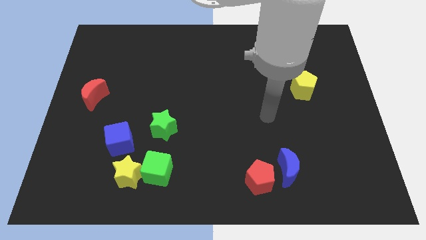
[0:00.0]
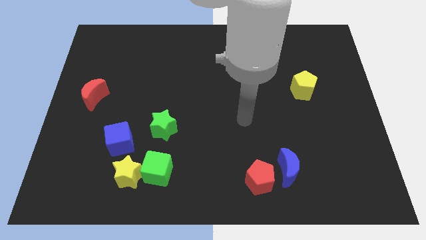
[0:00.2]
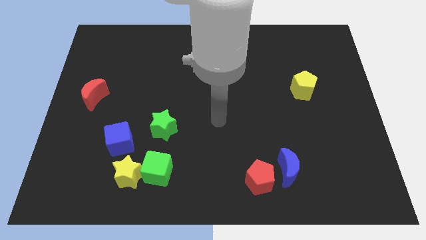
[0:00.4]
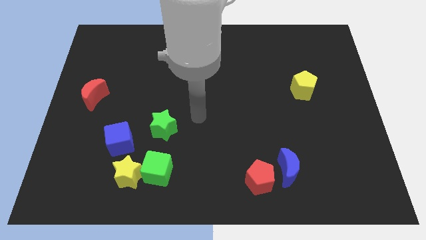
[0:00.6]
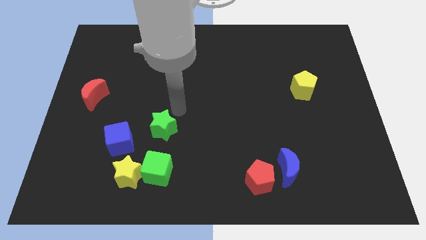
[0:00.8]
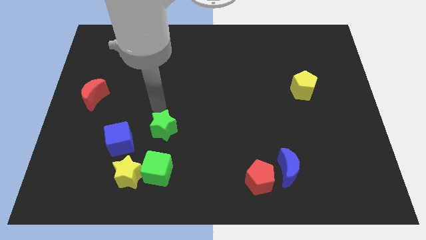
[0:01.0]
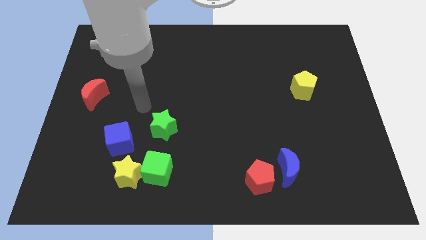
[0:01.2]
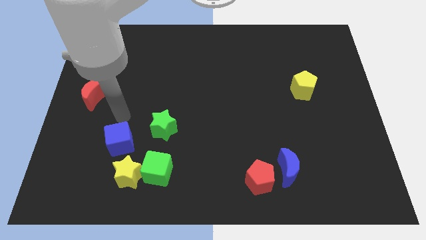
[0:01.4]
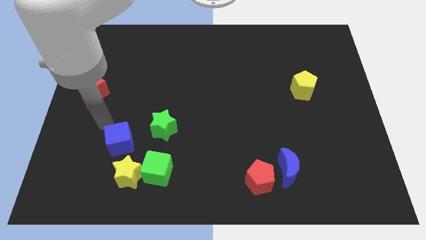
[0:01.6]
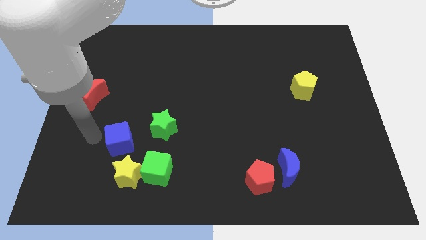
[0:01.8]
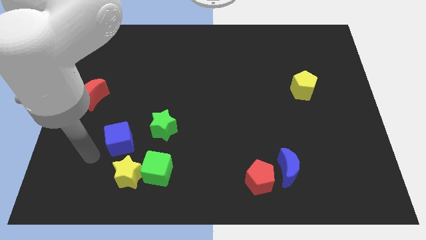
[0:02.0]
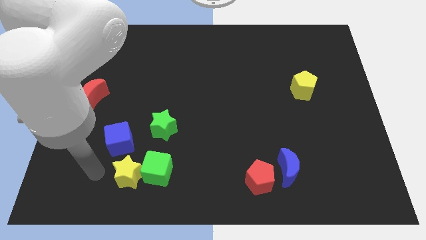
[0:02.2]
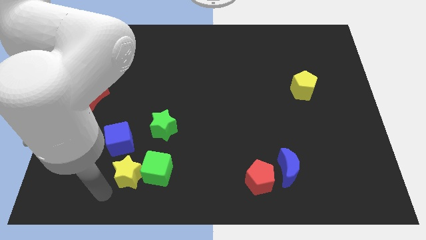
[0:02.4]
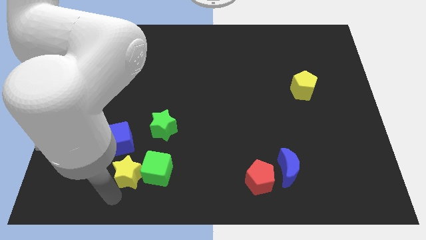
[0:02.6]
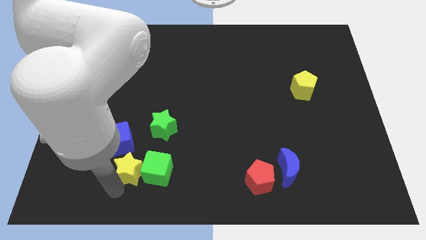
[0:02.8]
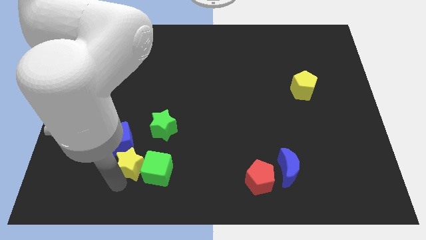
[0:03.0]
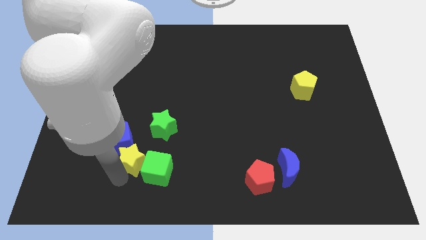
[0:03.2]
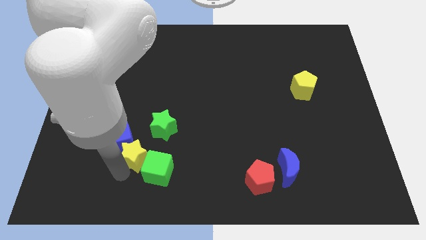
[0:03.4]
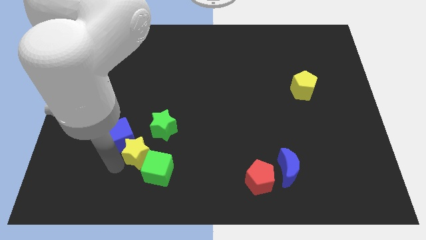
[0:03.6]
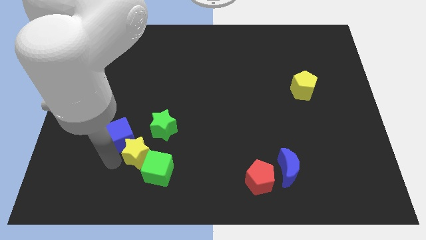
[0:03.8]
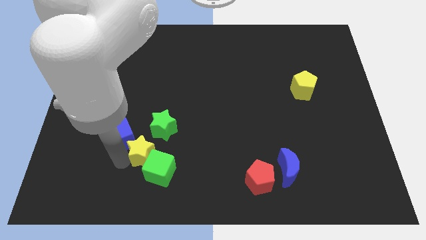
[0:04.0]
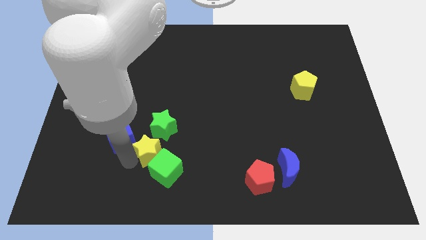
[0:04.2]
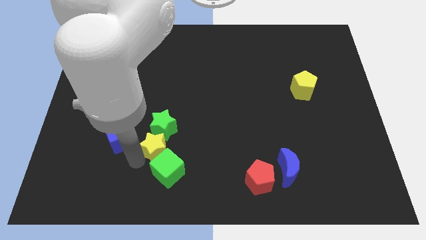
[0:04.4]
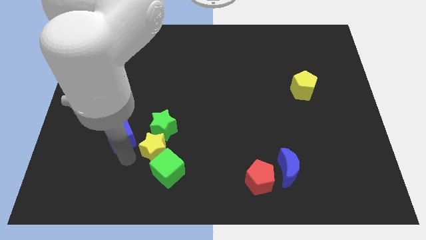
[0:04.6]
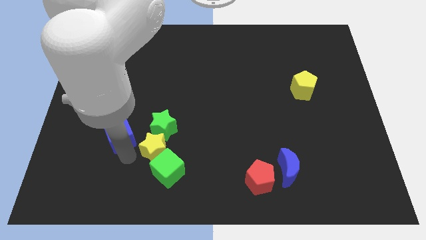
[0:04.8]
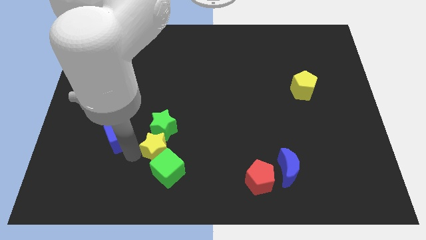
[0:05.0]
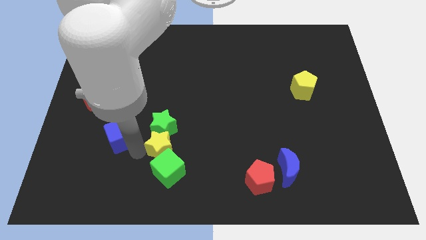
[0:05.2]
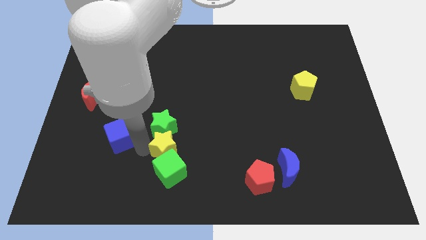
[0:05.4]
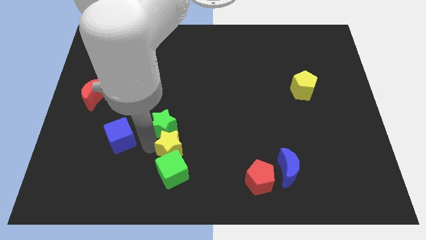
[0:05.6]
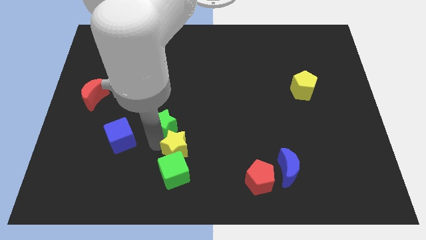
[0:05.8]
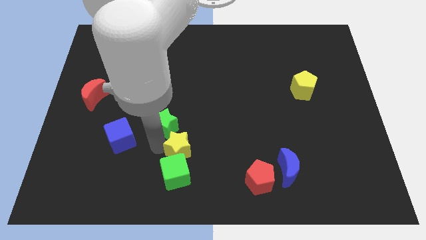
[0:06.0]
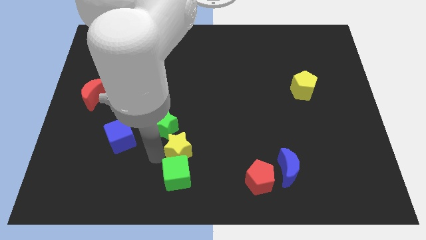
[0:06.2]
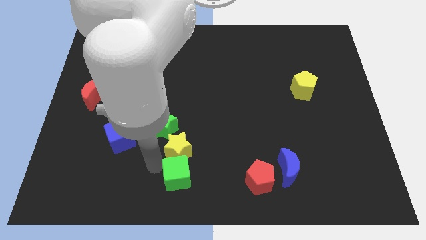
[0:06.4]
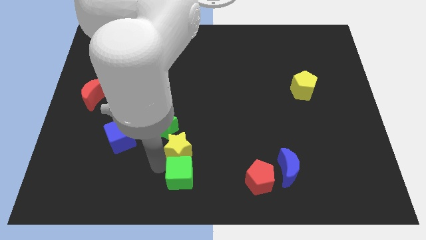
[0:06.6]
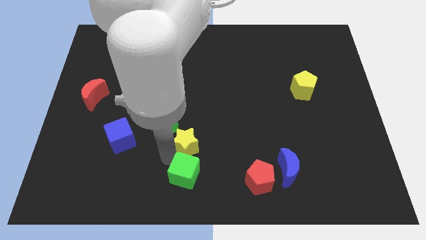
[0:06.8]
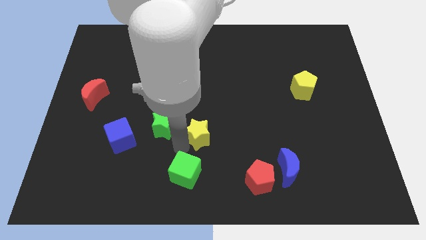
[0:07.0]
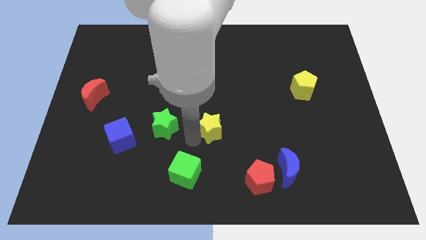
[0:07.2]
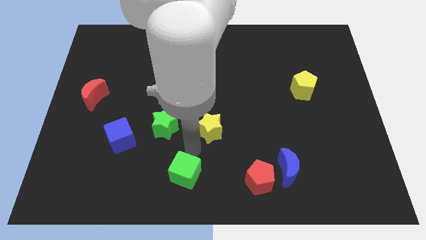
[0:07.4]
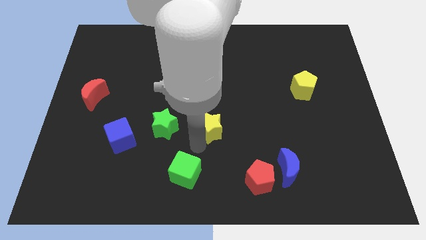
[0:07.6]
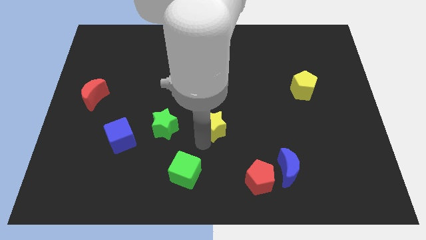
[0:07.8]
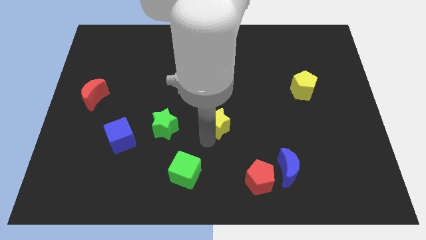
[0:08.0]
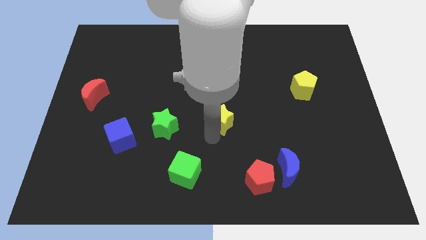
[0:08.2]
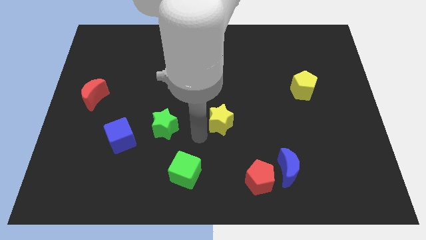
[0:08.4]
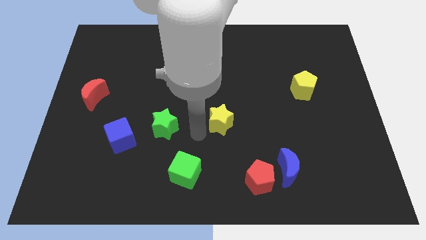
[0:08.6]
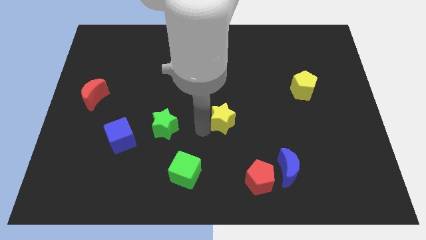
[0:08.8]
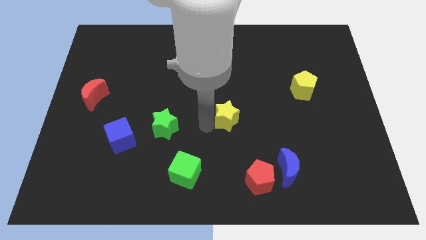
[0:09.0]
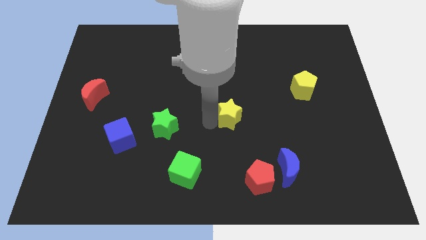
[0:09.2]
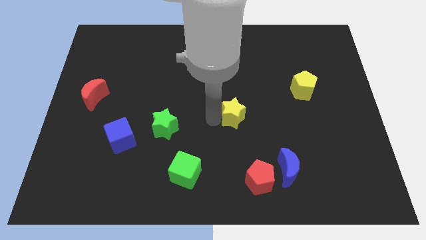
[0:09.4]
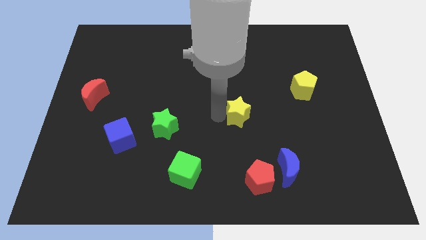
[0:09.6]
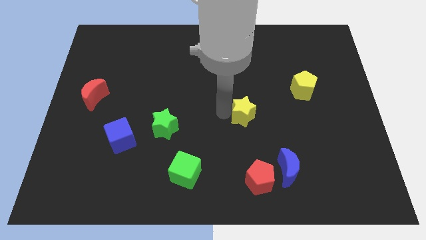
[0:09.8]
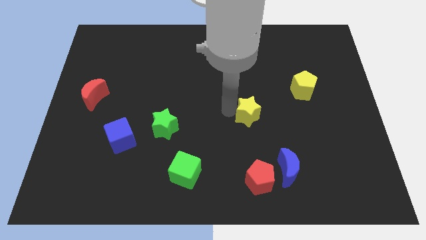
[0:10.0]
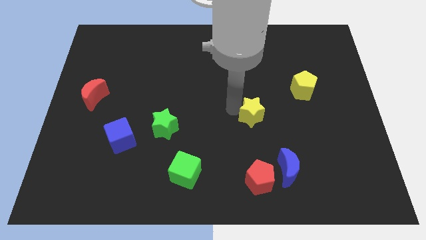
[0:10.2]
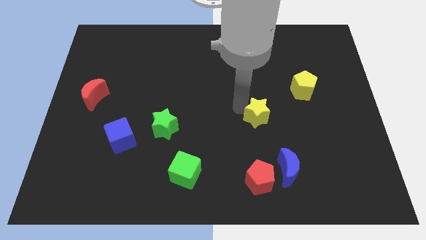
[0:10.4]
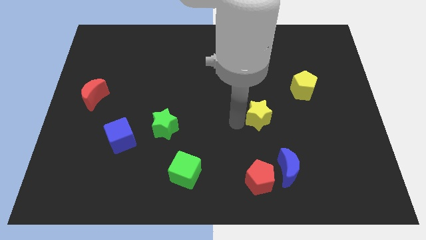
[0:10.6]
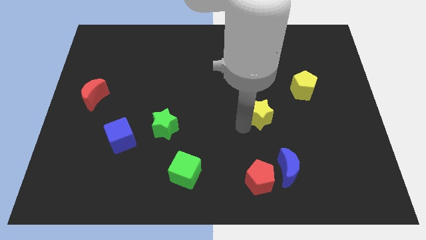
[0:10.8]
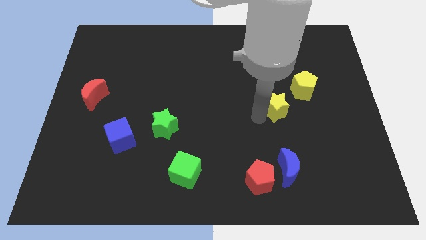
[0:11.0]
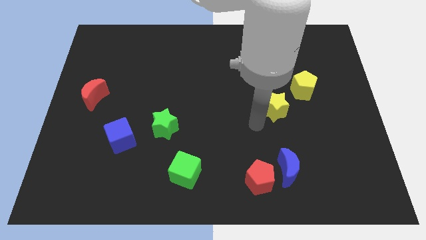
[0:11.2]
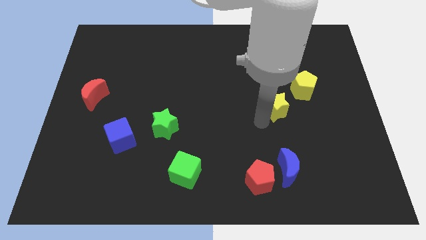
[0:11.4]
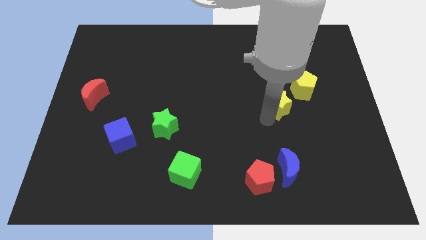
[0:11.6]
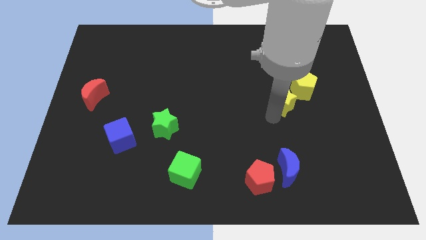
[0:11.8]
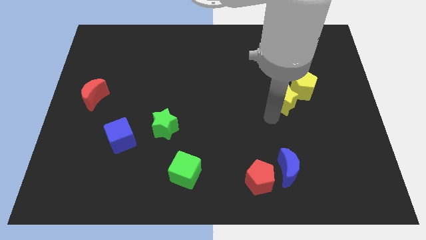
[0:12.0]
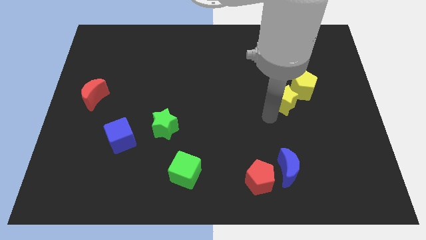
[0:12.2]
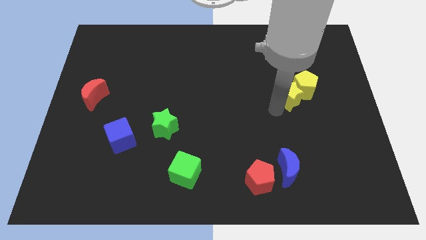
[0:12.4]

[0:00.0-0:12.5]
move the yellow star to the yellow pentagon

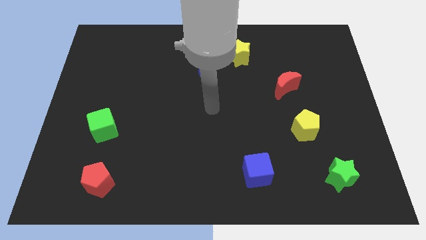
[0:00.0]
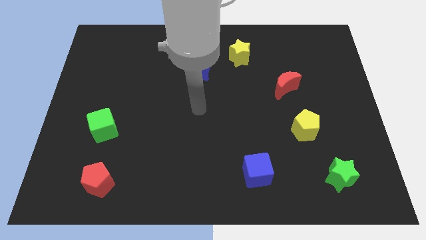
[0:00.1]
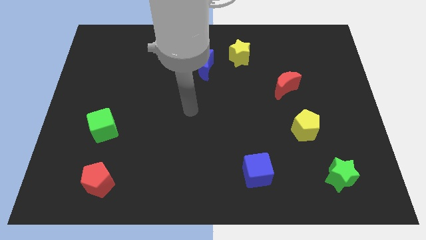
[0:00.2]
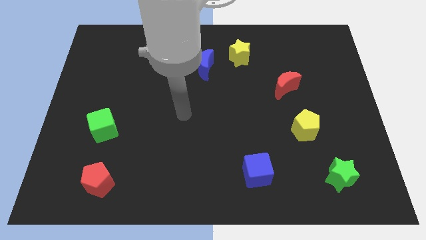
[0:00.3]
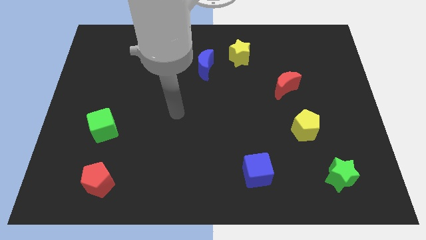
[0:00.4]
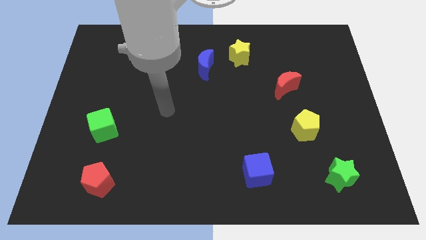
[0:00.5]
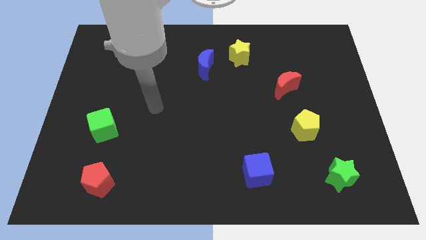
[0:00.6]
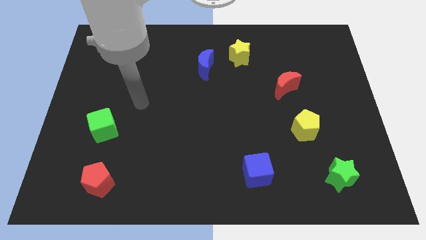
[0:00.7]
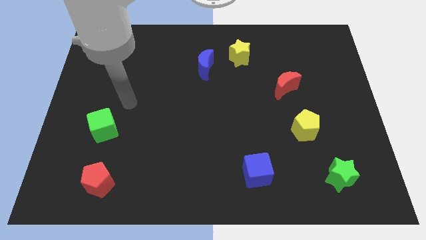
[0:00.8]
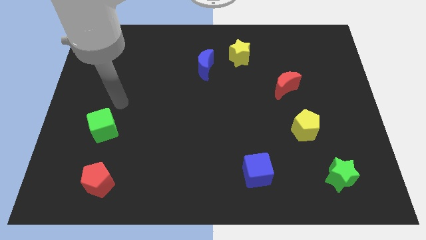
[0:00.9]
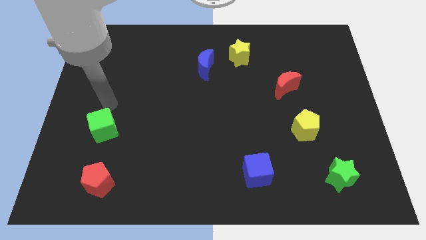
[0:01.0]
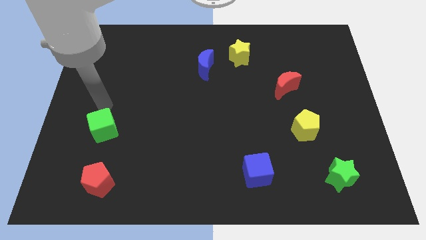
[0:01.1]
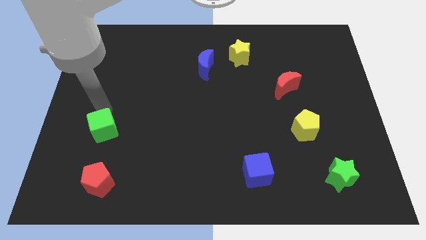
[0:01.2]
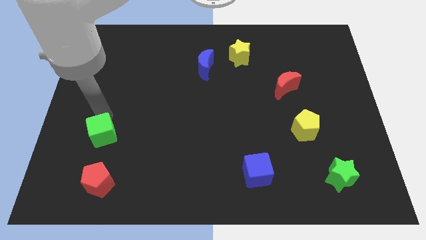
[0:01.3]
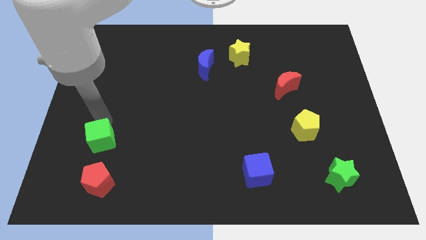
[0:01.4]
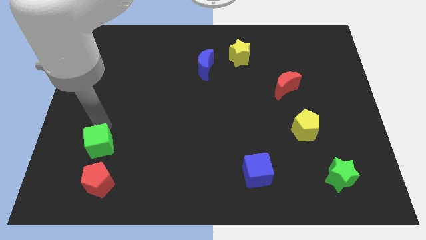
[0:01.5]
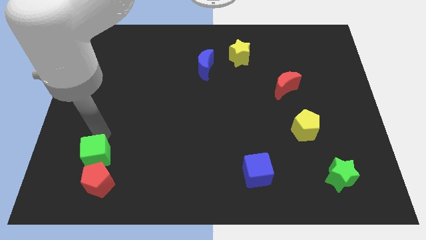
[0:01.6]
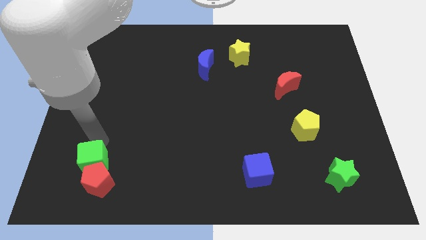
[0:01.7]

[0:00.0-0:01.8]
put the green cube close to the red pentagon
